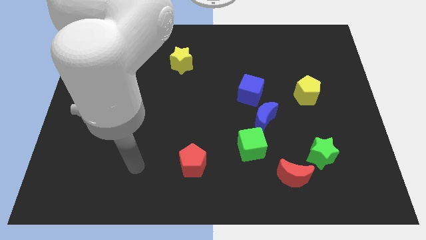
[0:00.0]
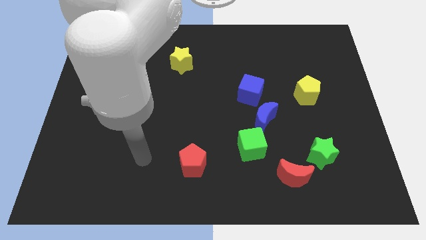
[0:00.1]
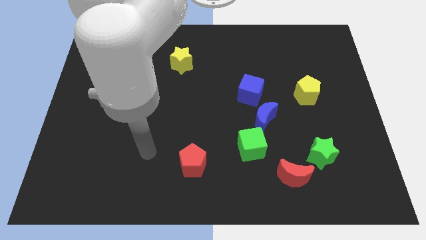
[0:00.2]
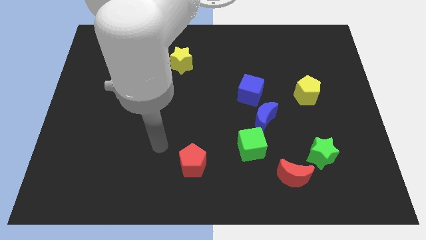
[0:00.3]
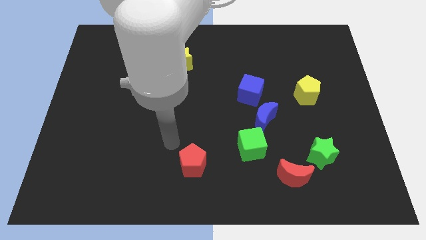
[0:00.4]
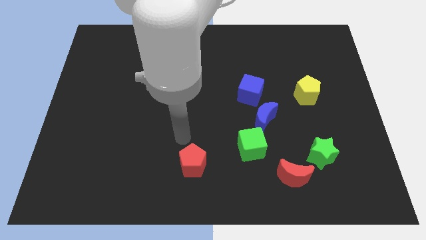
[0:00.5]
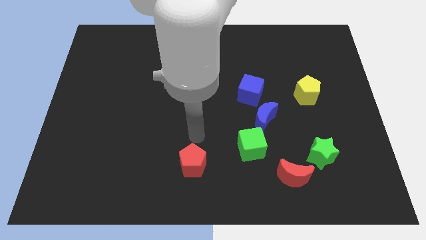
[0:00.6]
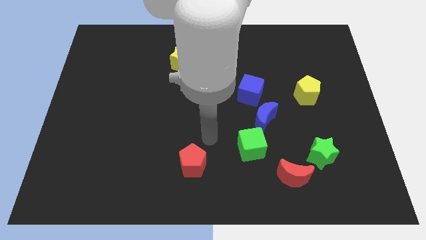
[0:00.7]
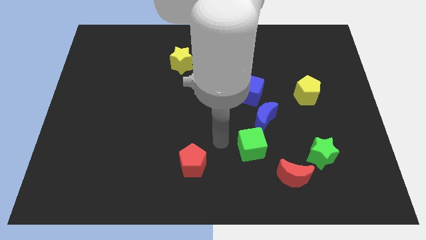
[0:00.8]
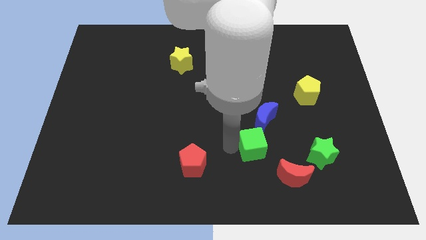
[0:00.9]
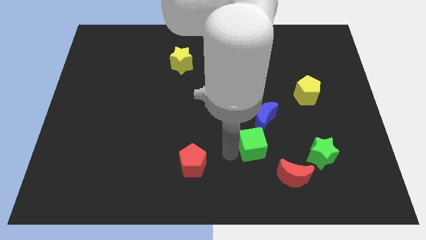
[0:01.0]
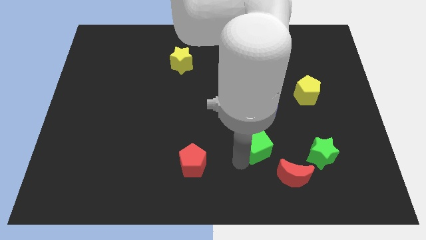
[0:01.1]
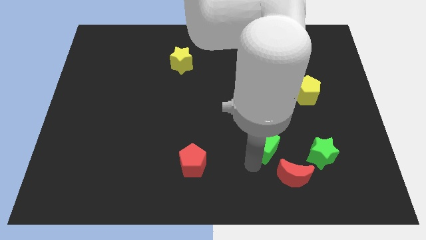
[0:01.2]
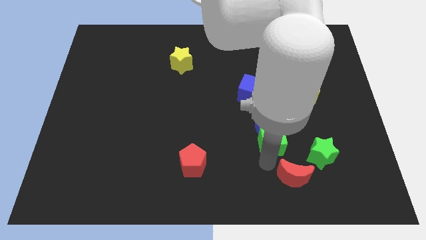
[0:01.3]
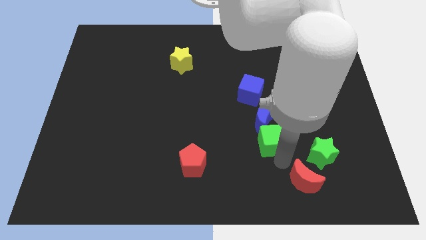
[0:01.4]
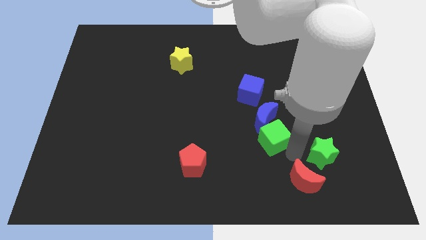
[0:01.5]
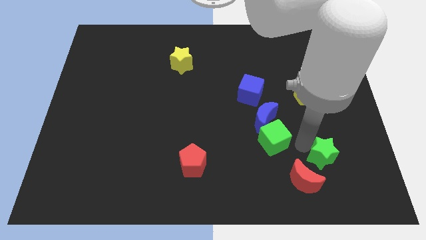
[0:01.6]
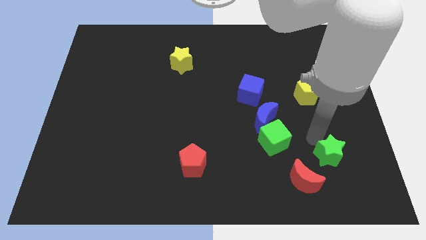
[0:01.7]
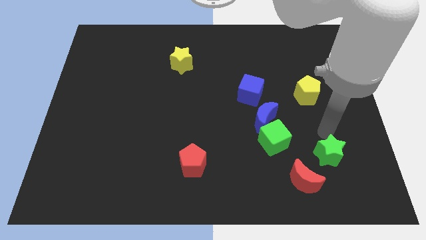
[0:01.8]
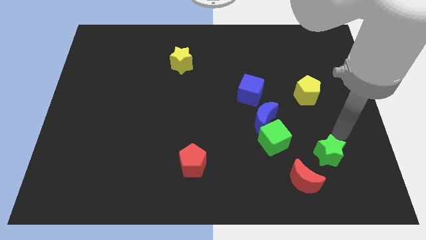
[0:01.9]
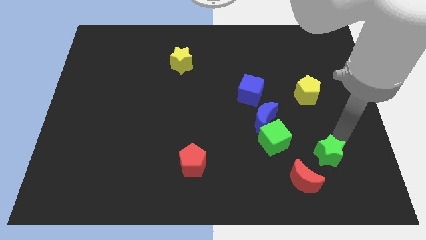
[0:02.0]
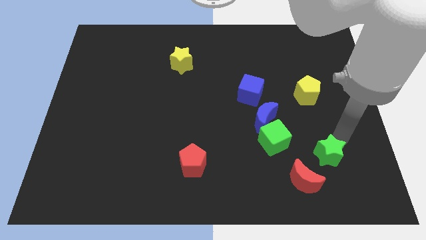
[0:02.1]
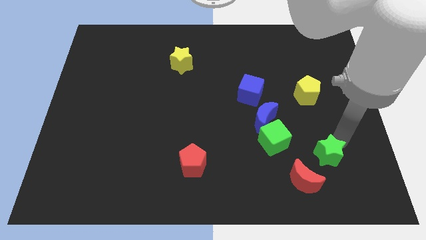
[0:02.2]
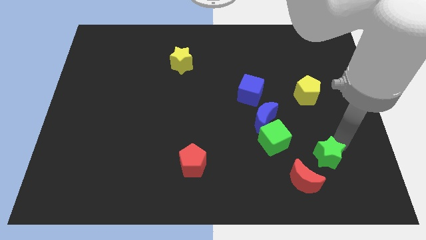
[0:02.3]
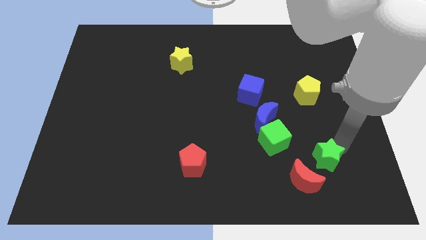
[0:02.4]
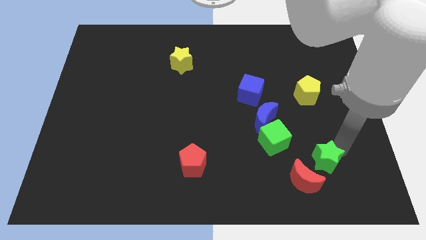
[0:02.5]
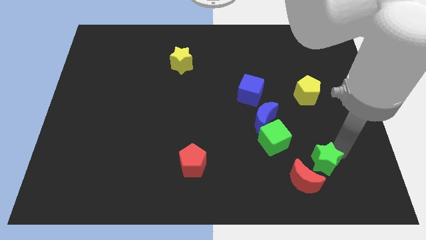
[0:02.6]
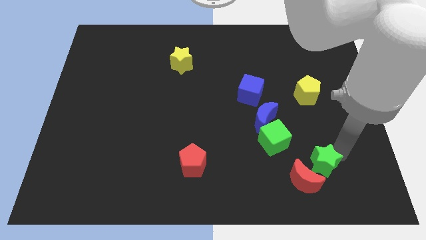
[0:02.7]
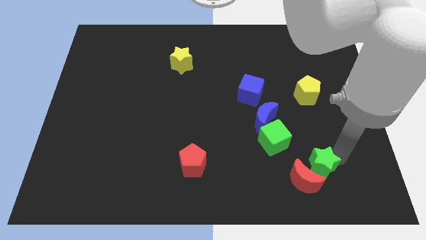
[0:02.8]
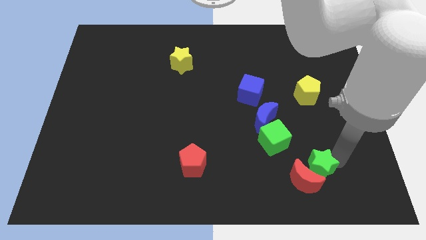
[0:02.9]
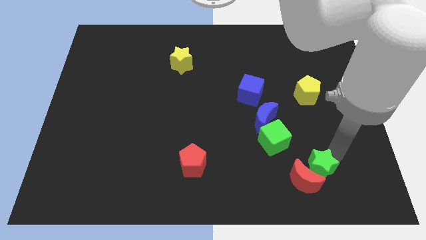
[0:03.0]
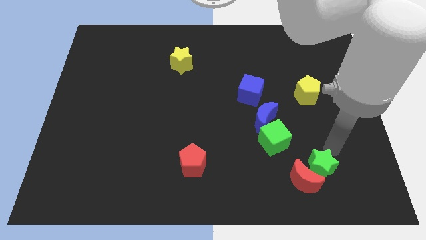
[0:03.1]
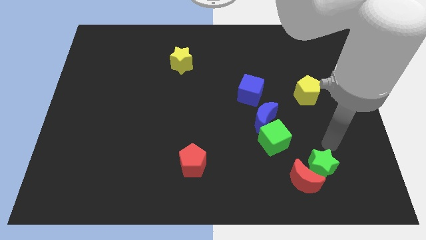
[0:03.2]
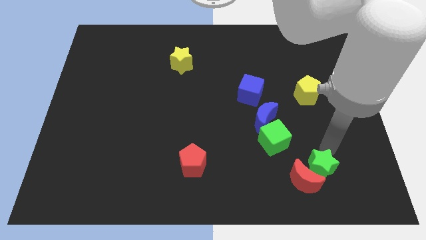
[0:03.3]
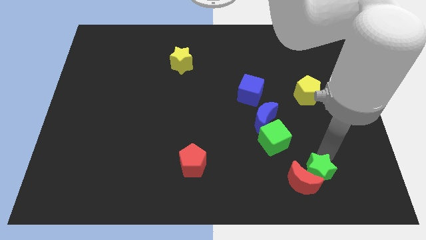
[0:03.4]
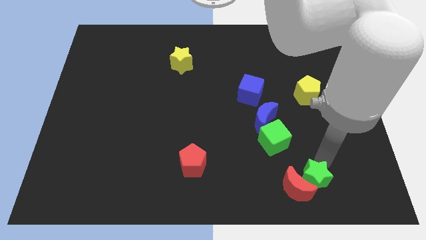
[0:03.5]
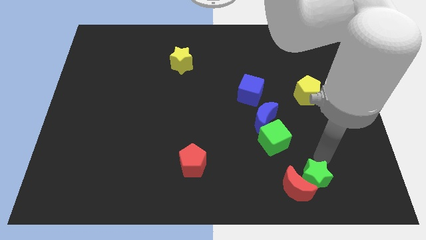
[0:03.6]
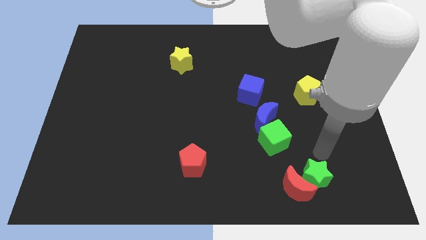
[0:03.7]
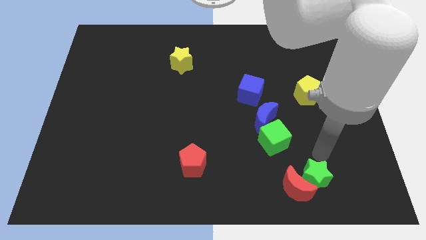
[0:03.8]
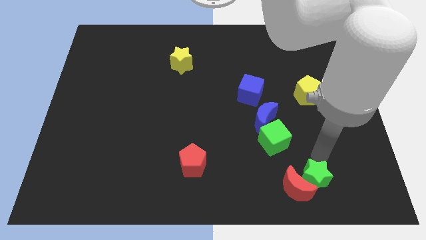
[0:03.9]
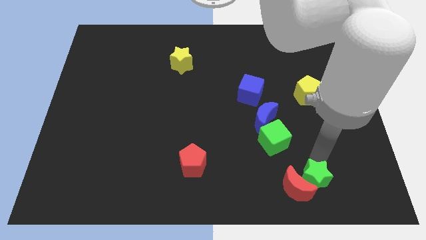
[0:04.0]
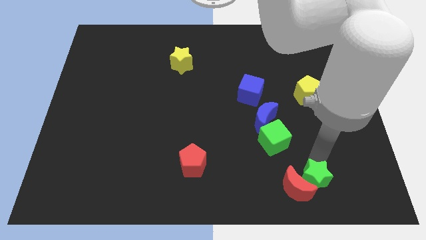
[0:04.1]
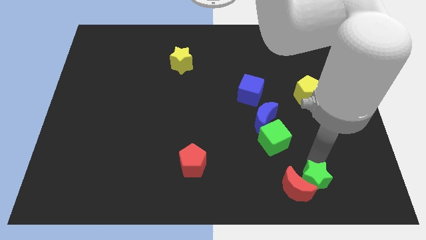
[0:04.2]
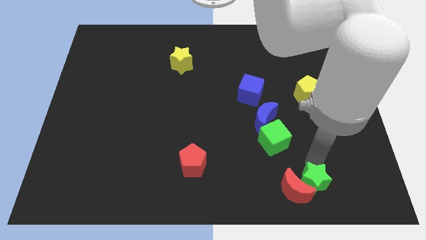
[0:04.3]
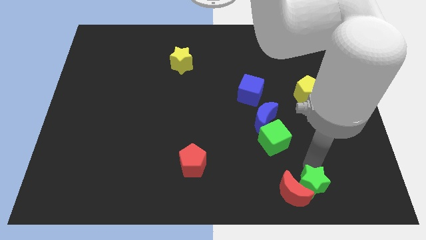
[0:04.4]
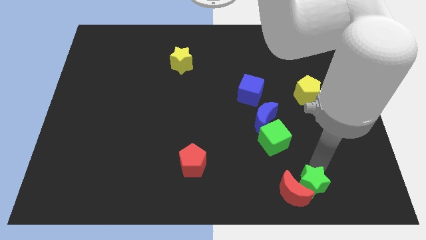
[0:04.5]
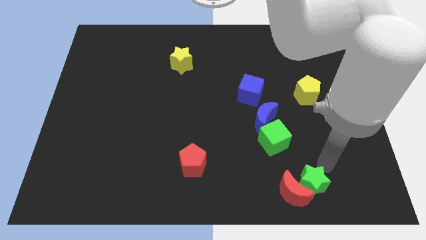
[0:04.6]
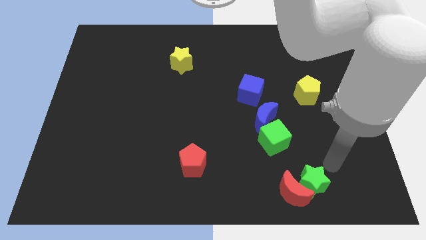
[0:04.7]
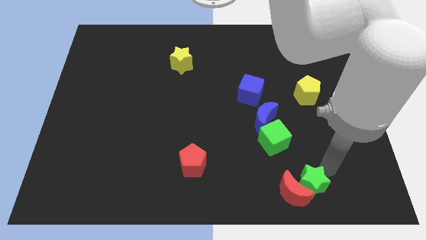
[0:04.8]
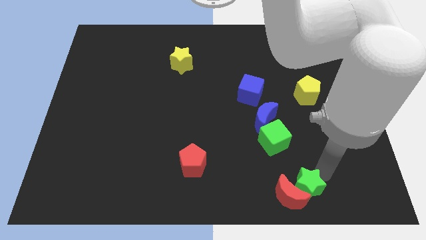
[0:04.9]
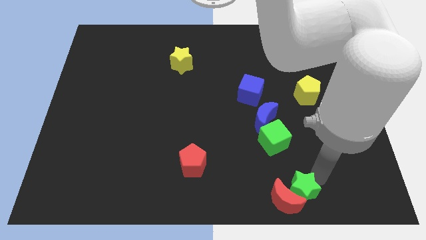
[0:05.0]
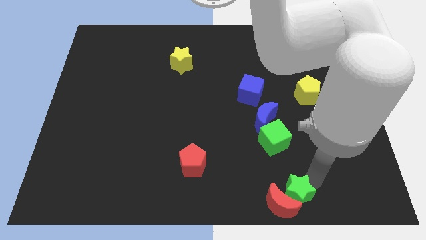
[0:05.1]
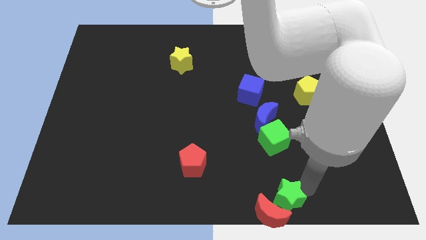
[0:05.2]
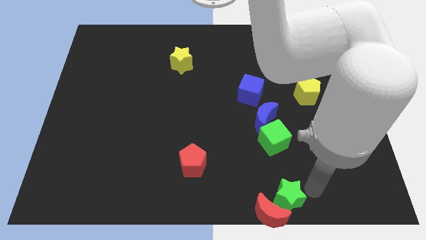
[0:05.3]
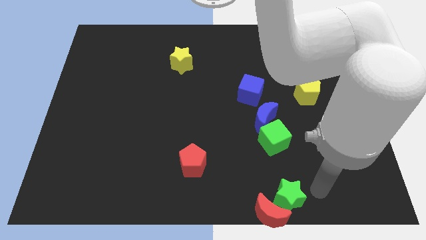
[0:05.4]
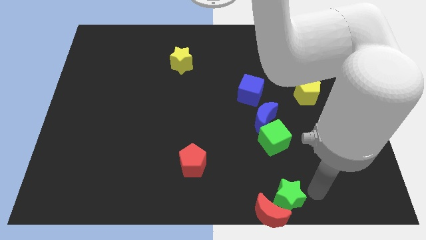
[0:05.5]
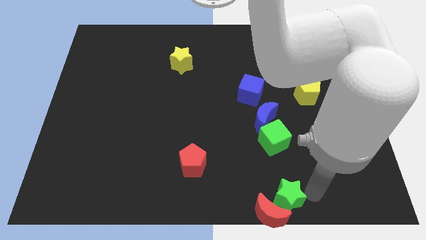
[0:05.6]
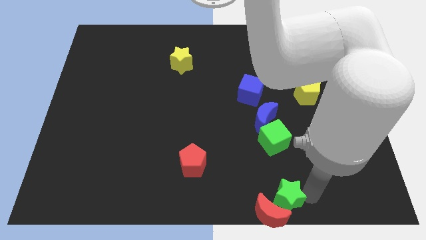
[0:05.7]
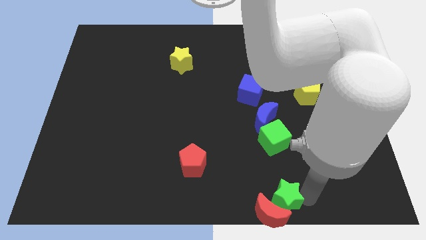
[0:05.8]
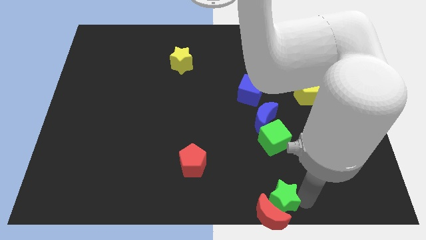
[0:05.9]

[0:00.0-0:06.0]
put the green star to the bottom

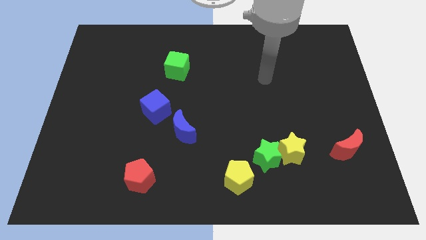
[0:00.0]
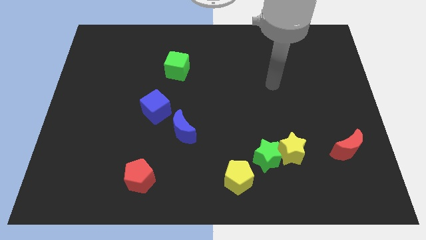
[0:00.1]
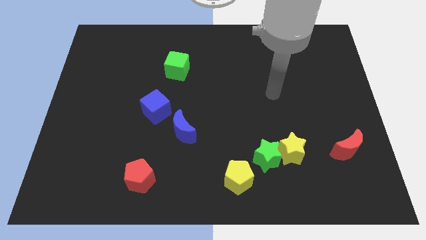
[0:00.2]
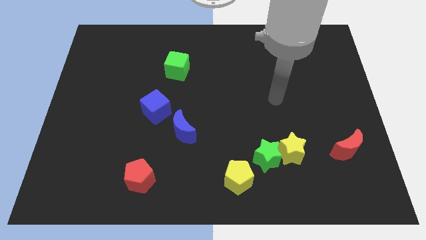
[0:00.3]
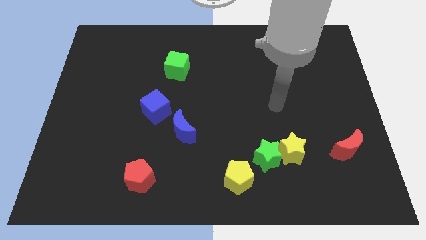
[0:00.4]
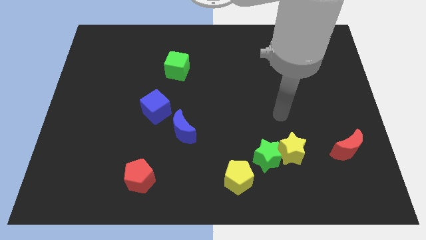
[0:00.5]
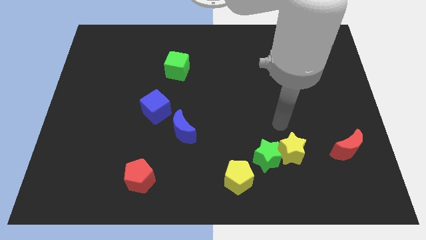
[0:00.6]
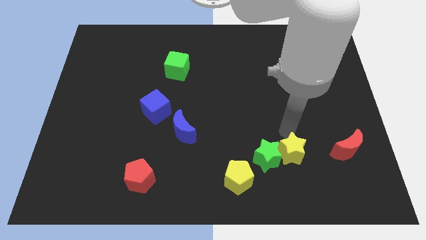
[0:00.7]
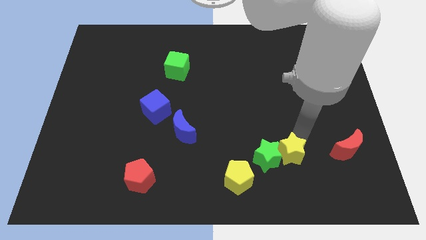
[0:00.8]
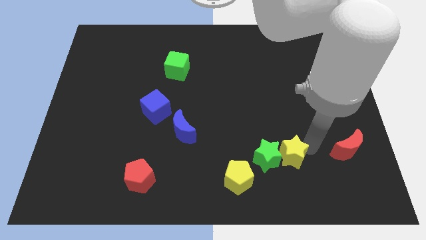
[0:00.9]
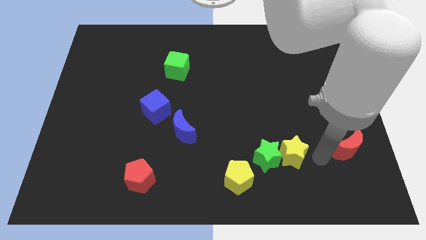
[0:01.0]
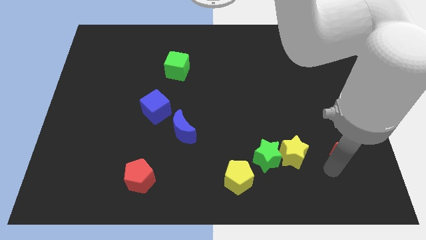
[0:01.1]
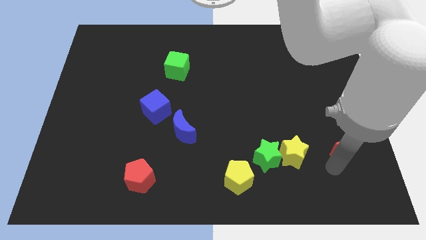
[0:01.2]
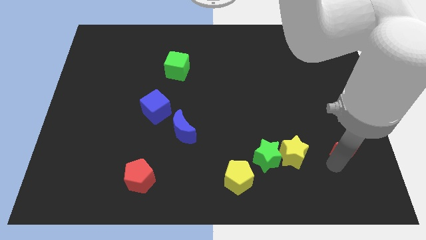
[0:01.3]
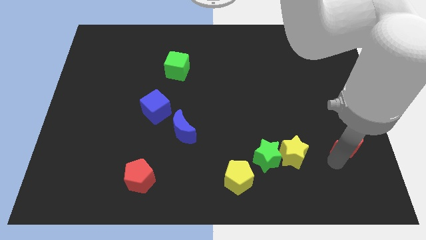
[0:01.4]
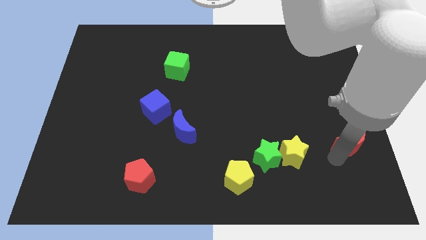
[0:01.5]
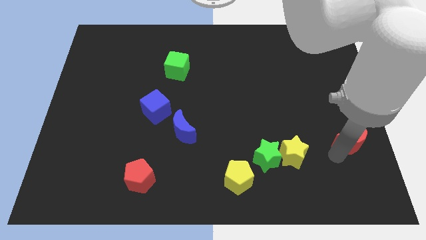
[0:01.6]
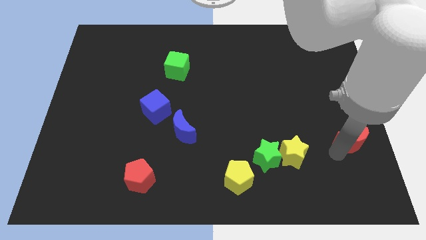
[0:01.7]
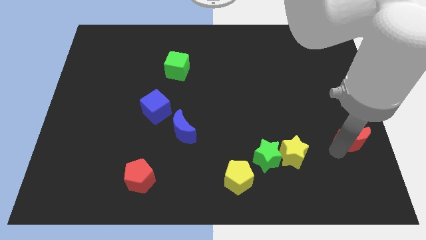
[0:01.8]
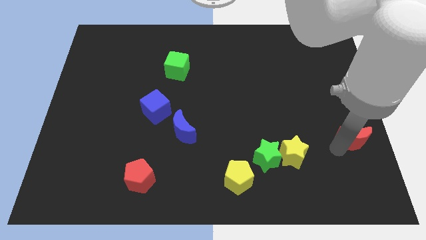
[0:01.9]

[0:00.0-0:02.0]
put the red moon to the right side
